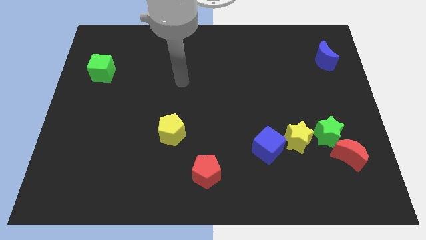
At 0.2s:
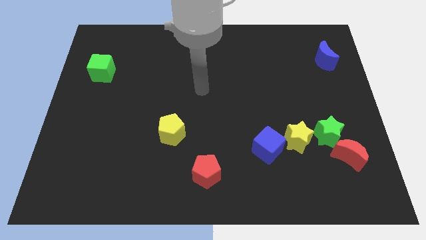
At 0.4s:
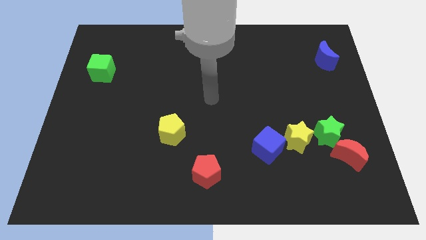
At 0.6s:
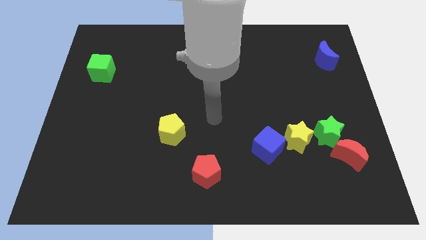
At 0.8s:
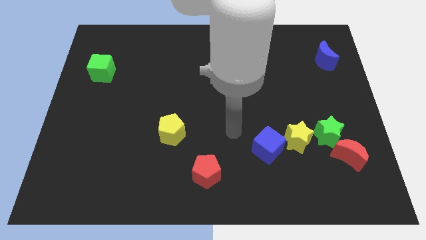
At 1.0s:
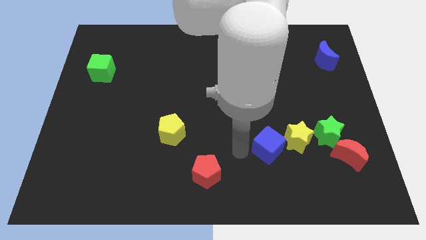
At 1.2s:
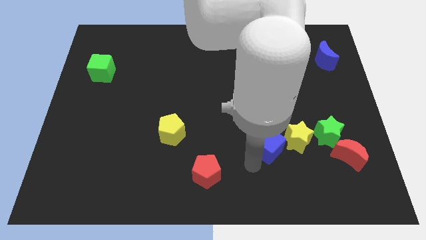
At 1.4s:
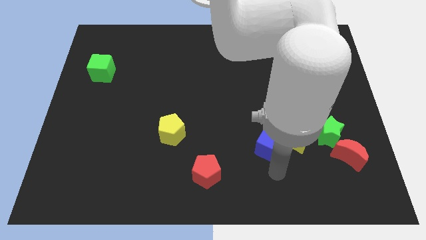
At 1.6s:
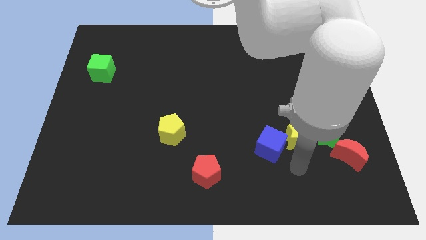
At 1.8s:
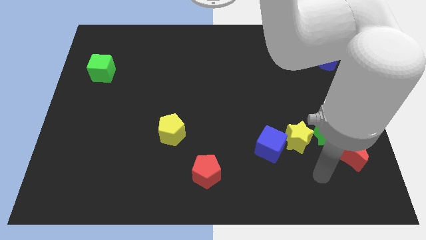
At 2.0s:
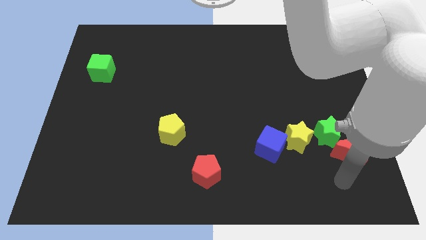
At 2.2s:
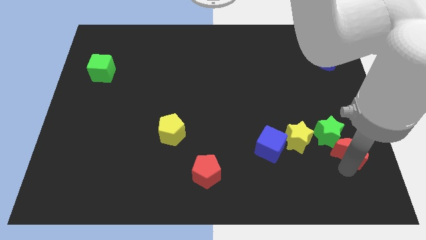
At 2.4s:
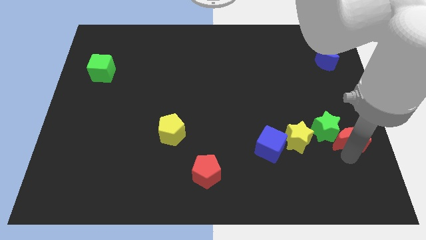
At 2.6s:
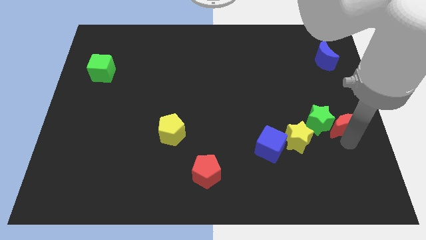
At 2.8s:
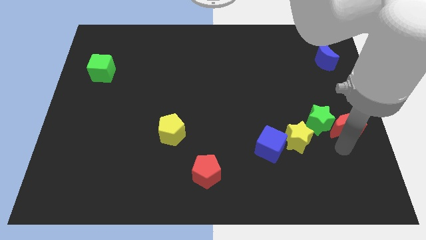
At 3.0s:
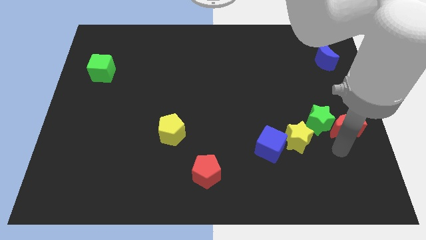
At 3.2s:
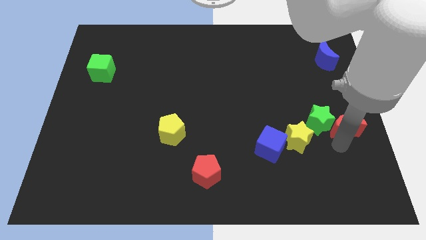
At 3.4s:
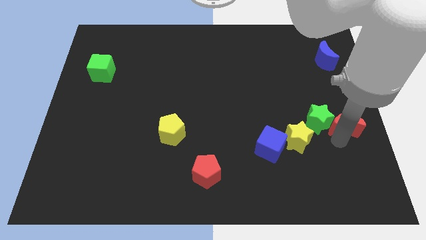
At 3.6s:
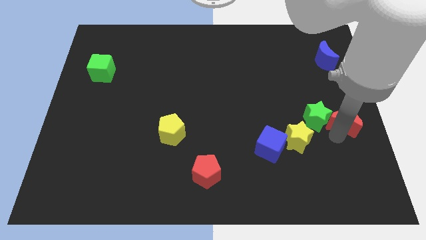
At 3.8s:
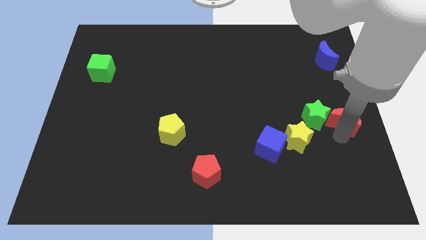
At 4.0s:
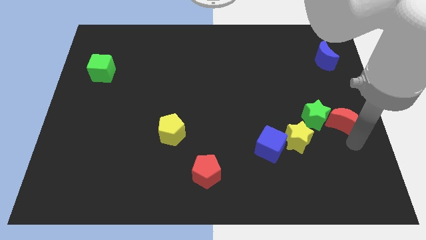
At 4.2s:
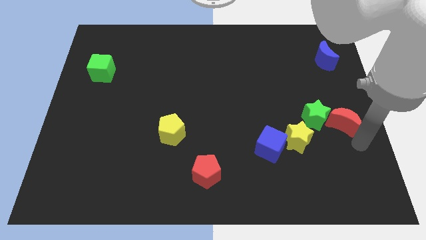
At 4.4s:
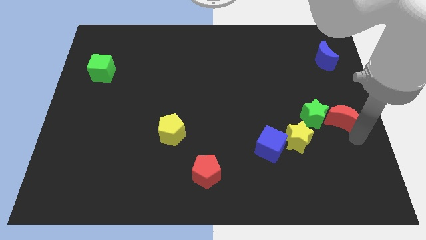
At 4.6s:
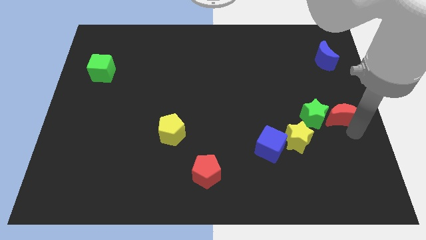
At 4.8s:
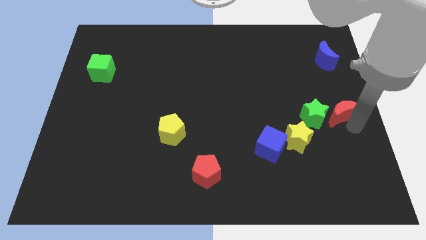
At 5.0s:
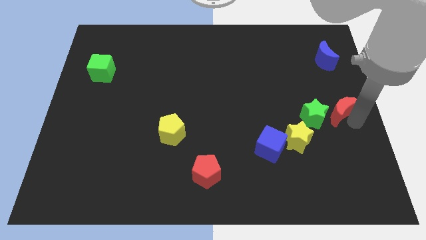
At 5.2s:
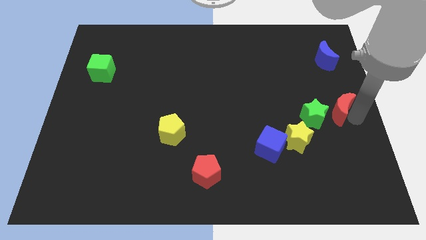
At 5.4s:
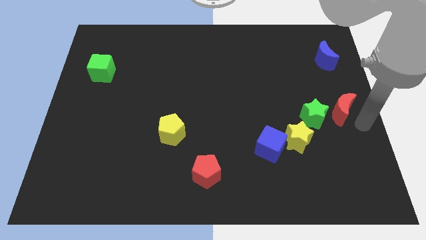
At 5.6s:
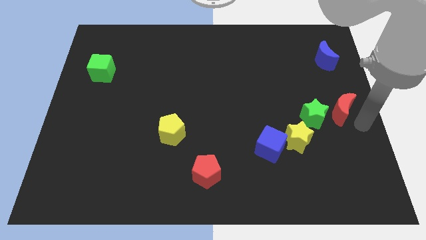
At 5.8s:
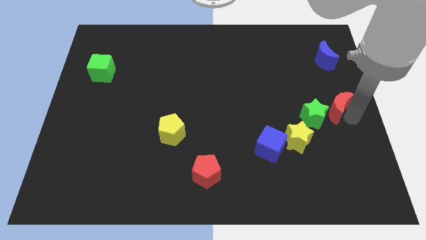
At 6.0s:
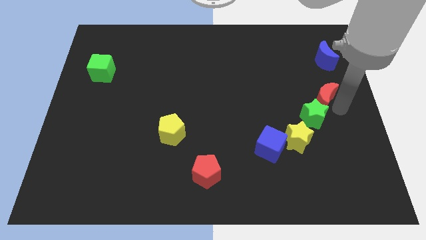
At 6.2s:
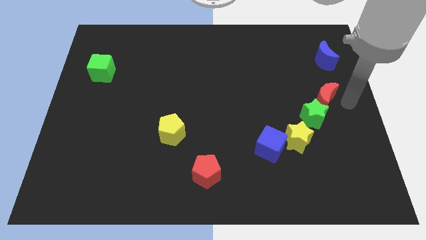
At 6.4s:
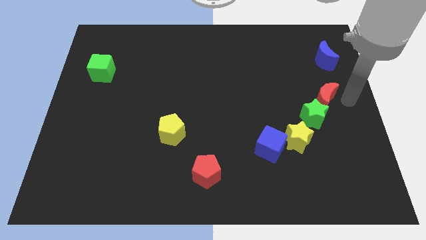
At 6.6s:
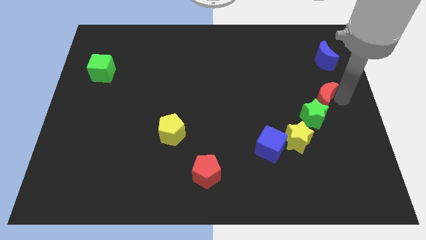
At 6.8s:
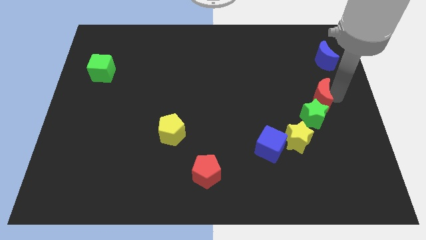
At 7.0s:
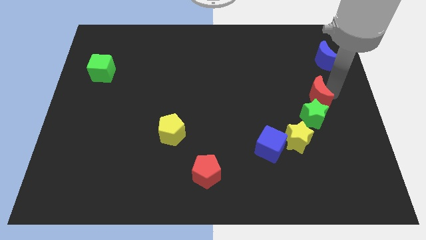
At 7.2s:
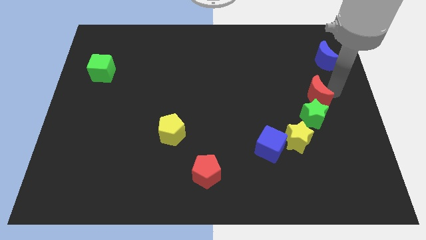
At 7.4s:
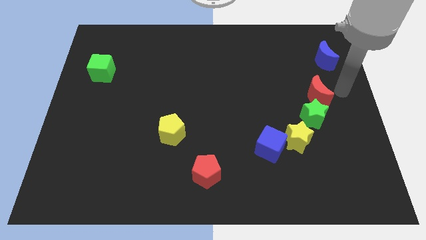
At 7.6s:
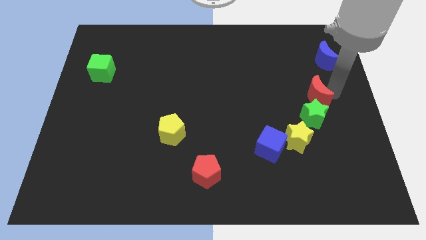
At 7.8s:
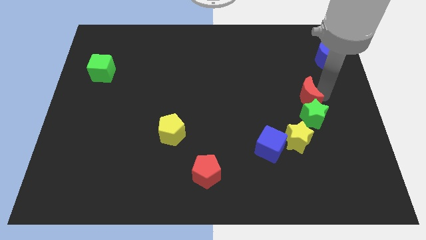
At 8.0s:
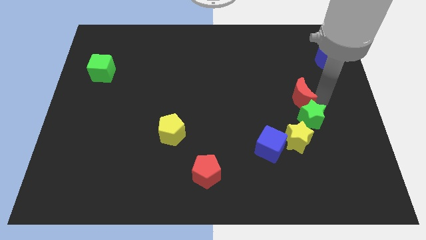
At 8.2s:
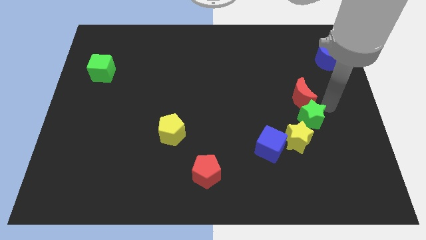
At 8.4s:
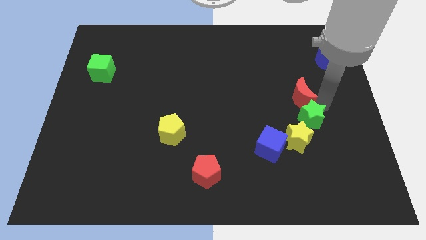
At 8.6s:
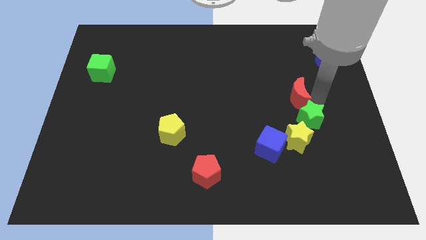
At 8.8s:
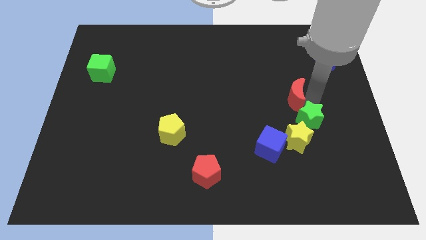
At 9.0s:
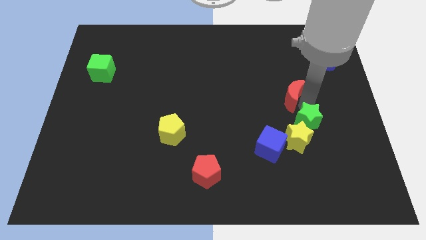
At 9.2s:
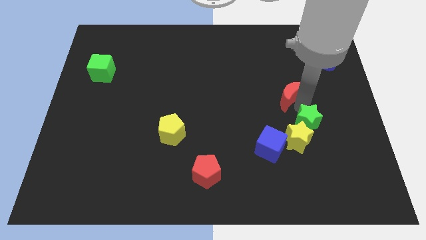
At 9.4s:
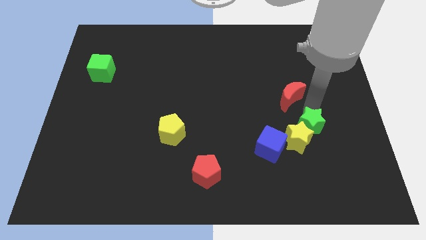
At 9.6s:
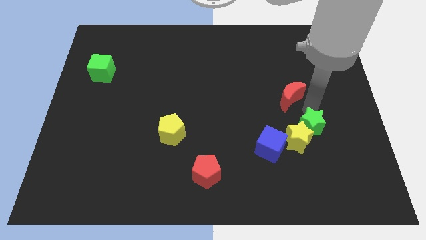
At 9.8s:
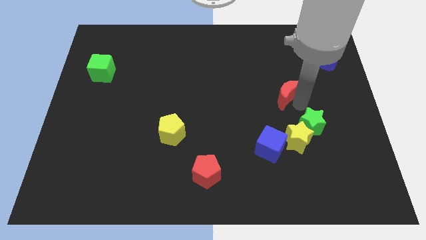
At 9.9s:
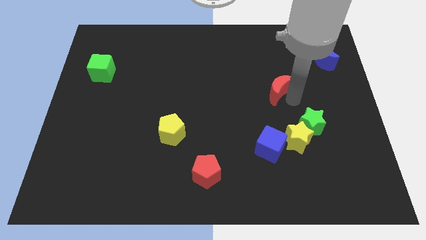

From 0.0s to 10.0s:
slide the red moon upwards and left

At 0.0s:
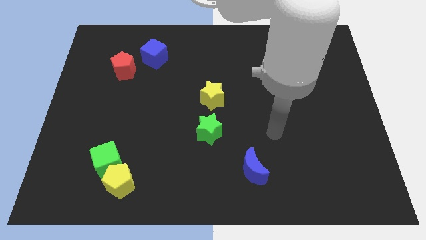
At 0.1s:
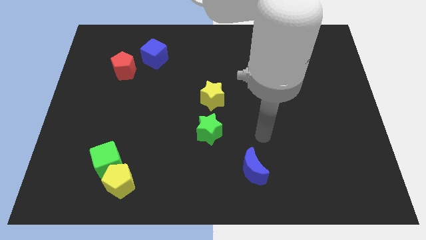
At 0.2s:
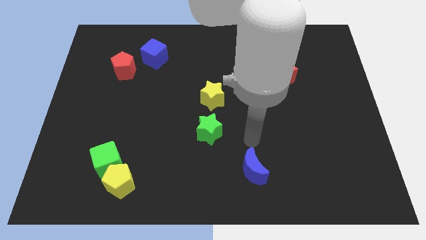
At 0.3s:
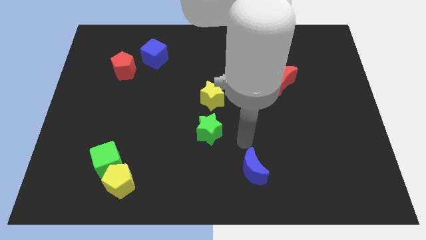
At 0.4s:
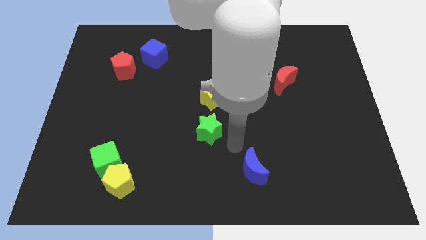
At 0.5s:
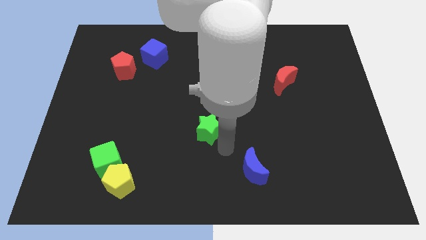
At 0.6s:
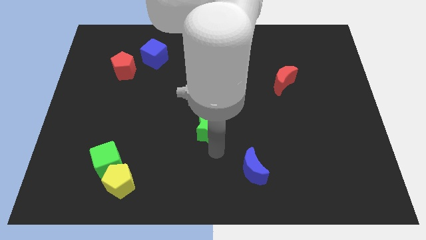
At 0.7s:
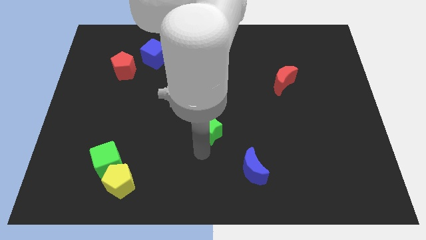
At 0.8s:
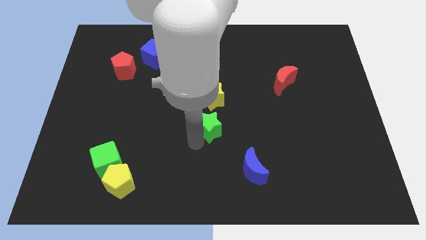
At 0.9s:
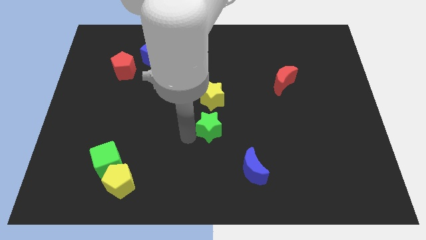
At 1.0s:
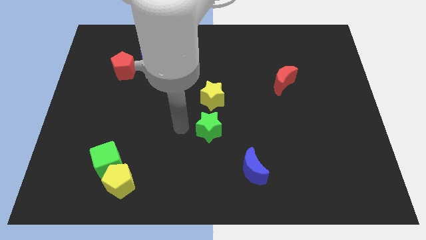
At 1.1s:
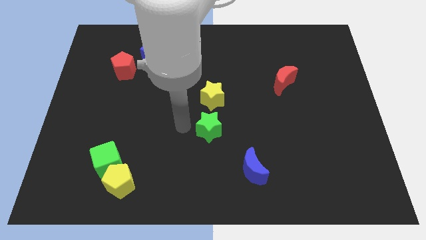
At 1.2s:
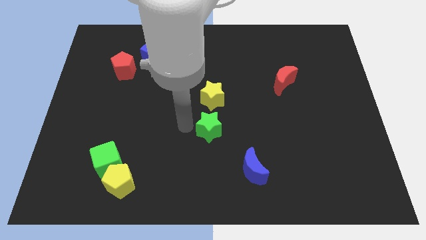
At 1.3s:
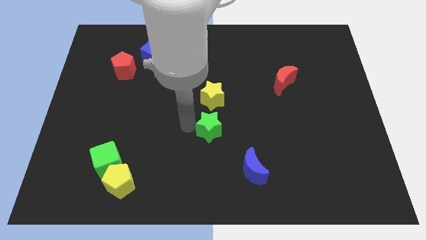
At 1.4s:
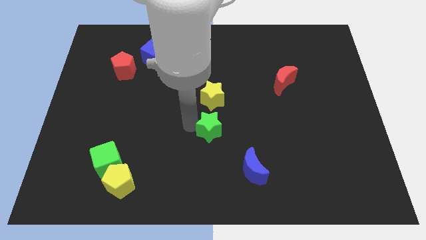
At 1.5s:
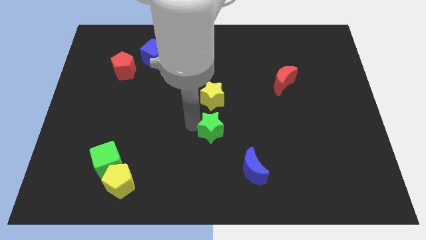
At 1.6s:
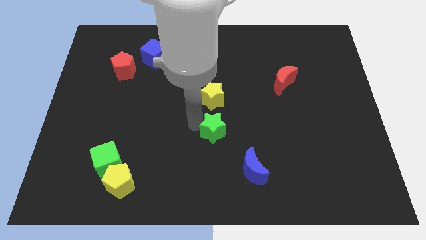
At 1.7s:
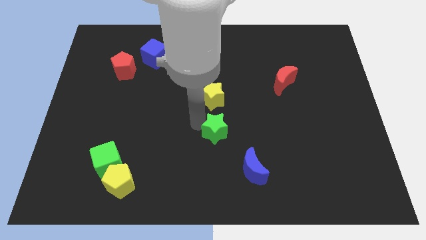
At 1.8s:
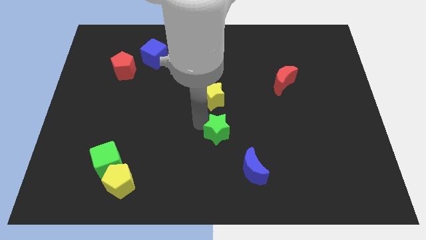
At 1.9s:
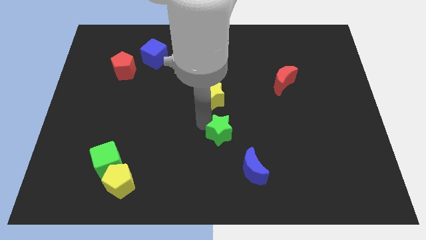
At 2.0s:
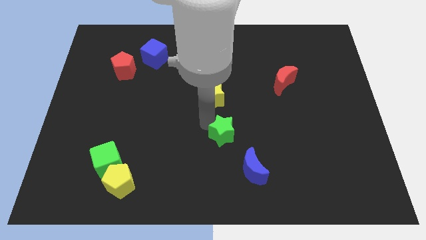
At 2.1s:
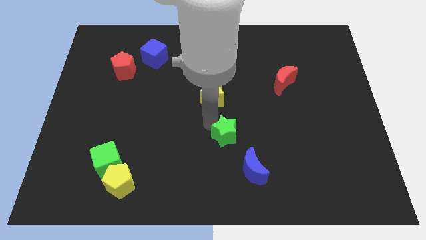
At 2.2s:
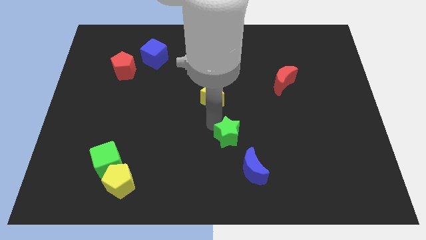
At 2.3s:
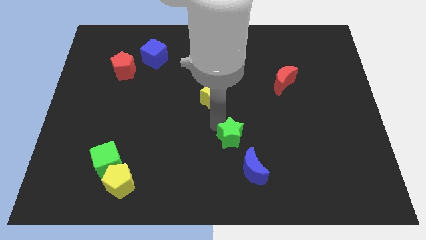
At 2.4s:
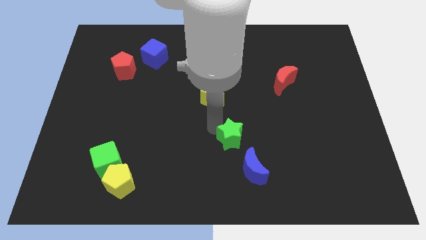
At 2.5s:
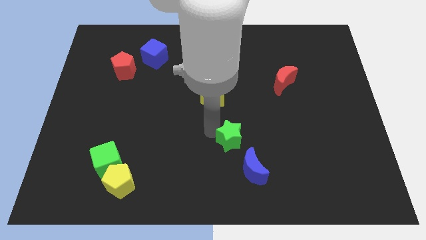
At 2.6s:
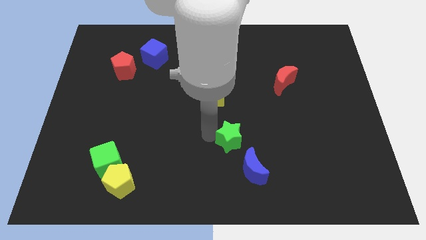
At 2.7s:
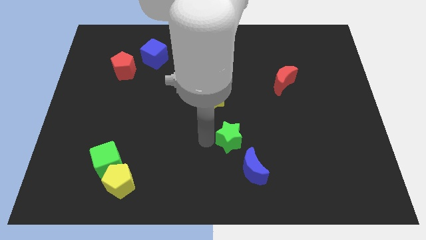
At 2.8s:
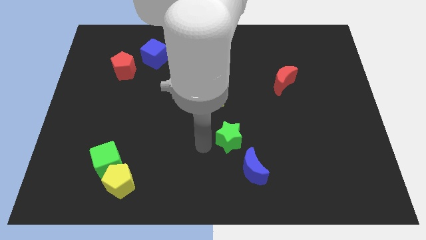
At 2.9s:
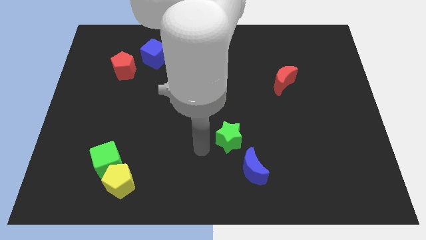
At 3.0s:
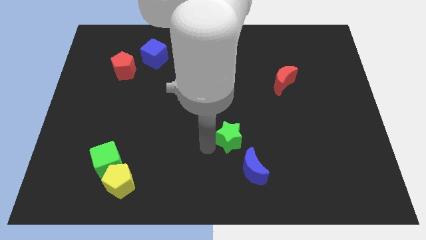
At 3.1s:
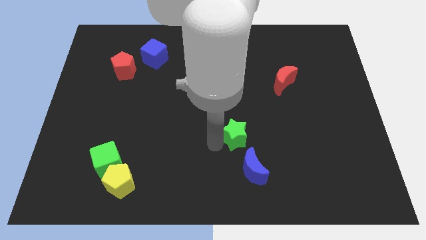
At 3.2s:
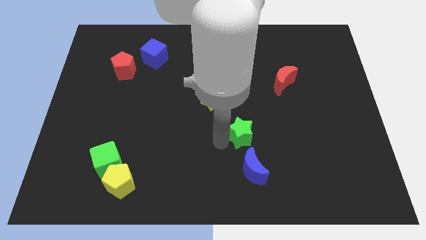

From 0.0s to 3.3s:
move the green star a bit to the right
